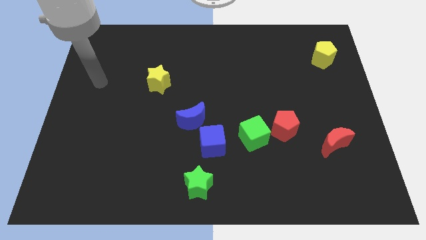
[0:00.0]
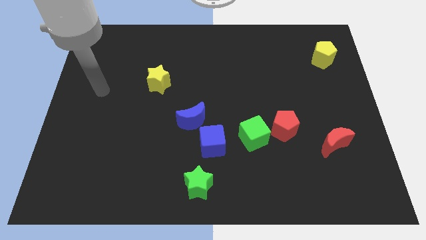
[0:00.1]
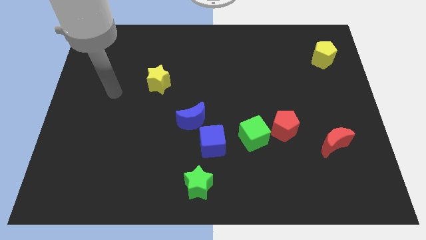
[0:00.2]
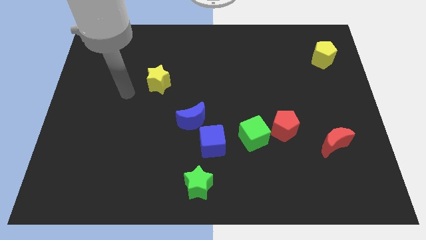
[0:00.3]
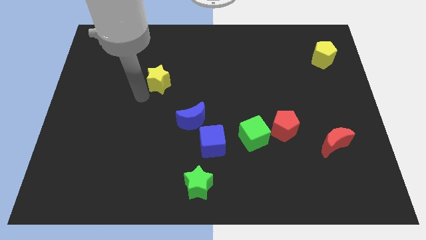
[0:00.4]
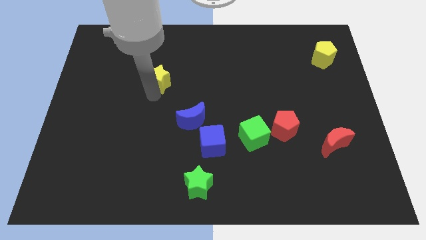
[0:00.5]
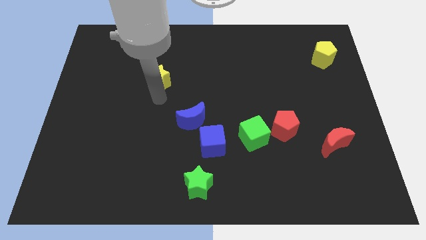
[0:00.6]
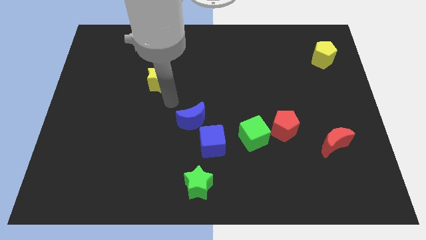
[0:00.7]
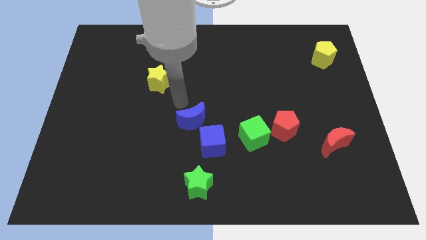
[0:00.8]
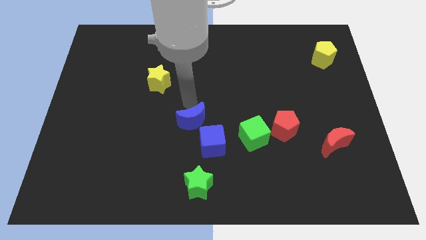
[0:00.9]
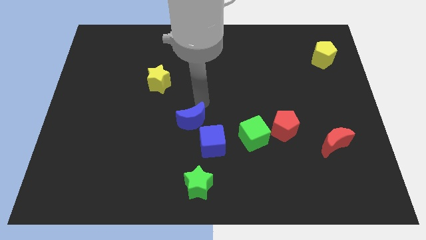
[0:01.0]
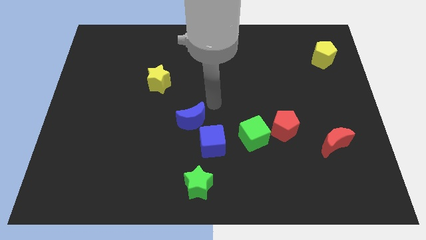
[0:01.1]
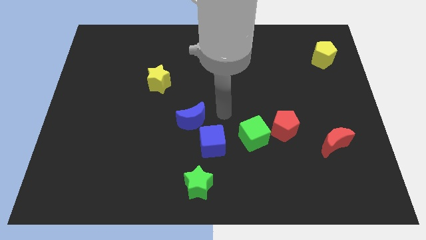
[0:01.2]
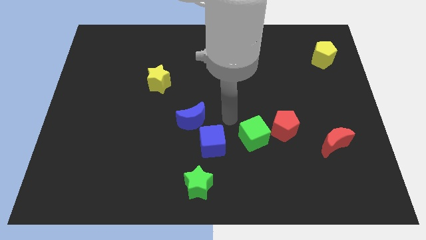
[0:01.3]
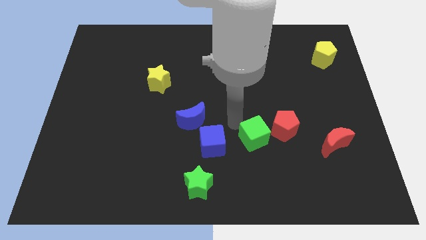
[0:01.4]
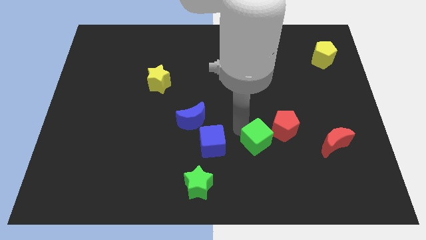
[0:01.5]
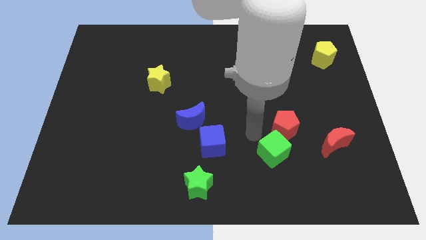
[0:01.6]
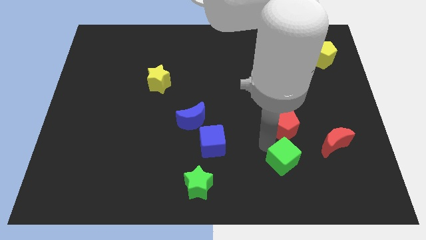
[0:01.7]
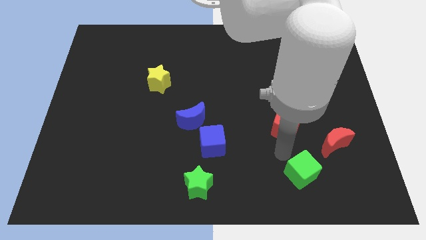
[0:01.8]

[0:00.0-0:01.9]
pull the red pentagon apart from the green cube

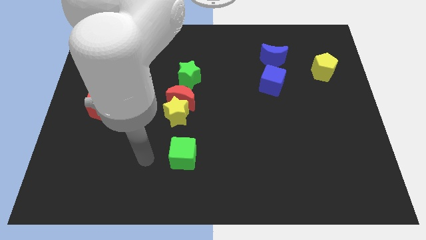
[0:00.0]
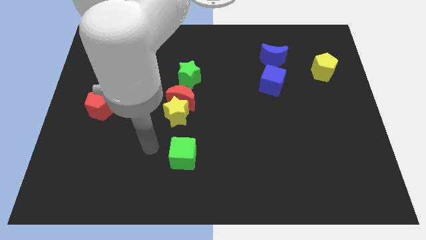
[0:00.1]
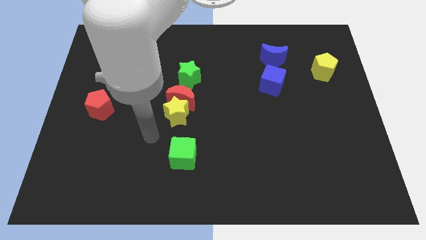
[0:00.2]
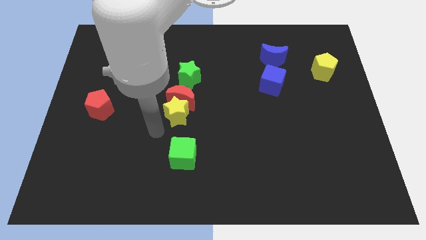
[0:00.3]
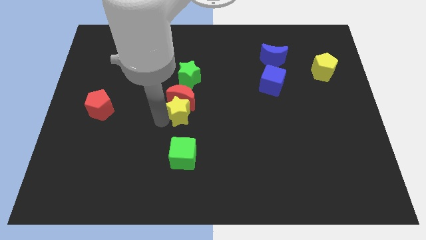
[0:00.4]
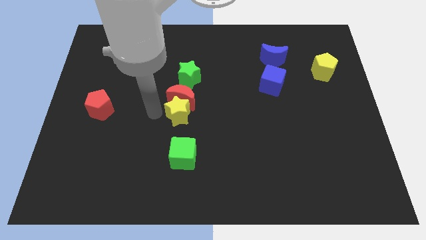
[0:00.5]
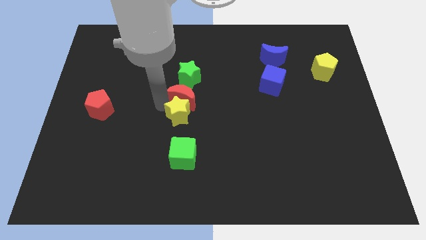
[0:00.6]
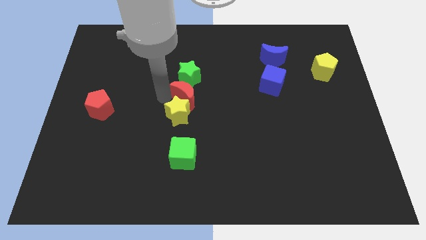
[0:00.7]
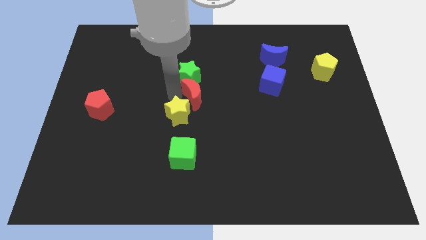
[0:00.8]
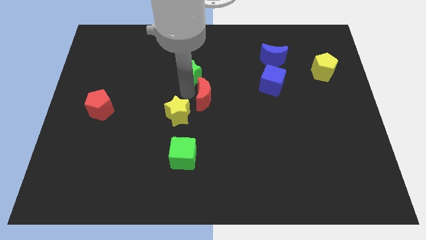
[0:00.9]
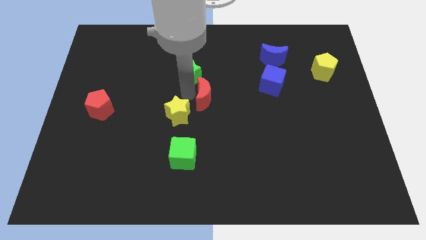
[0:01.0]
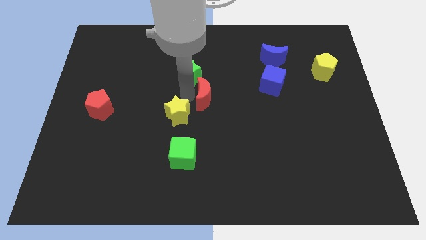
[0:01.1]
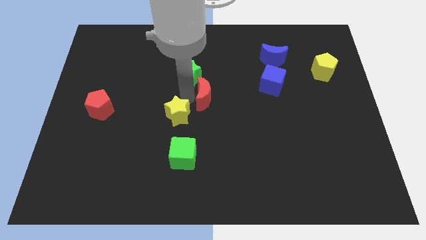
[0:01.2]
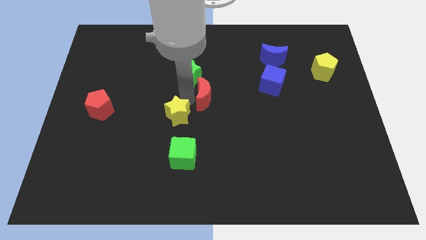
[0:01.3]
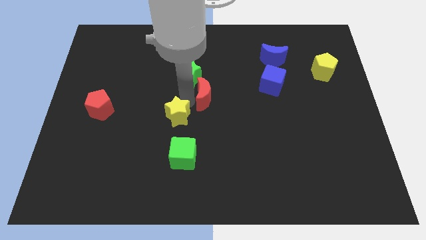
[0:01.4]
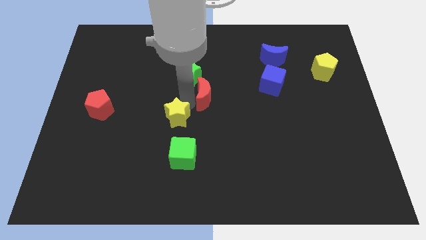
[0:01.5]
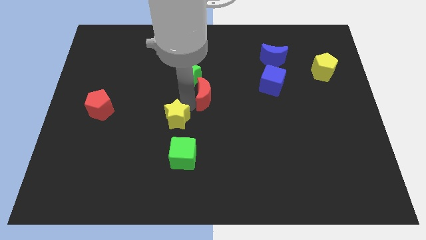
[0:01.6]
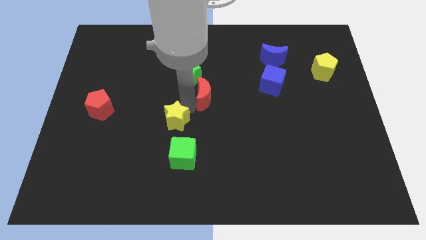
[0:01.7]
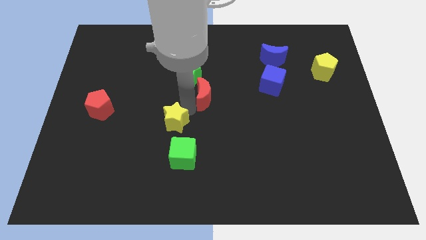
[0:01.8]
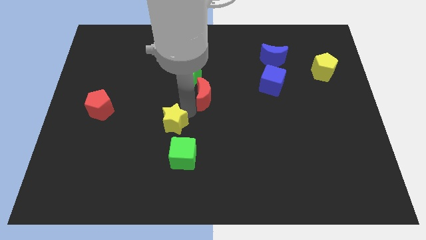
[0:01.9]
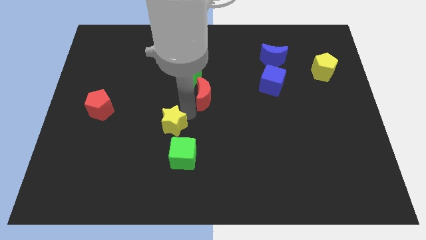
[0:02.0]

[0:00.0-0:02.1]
move the yellow star away from the red moon

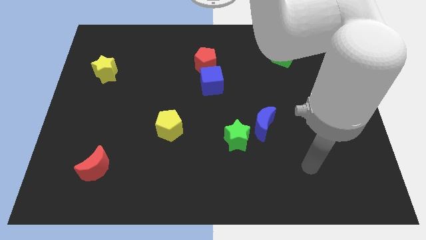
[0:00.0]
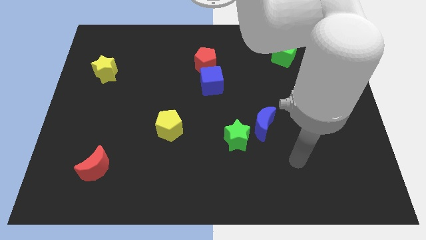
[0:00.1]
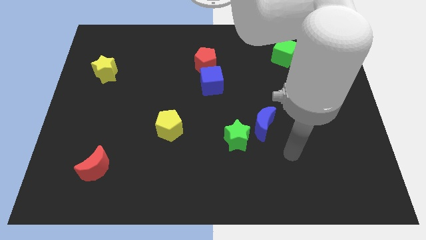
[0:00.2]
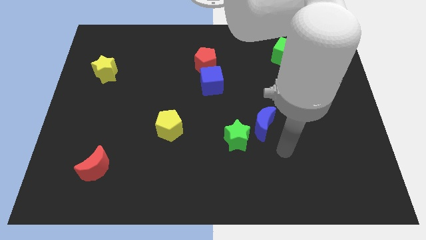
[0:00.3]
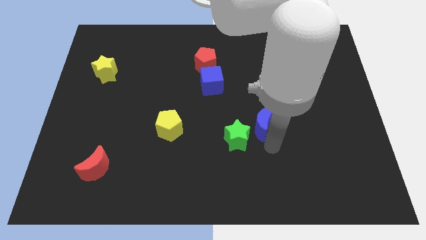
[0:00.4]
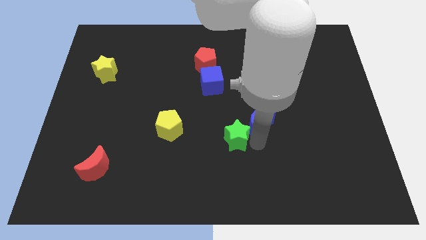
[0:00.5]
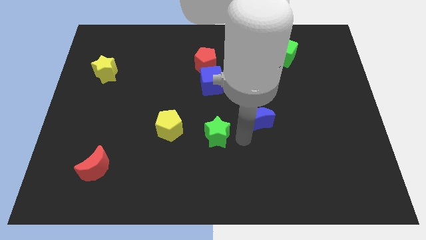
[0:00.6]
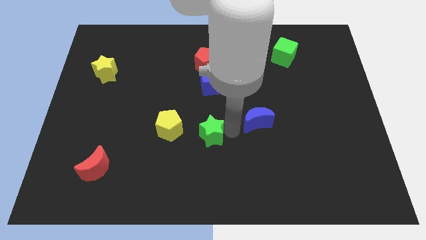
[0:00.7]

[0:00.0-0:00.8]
separate the blue moon from the green star

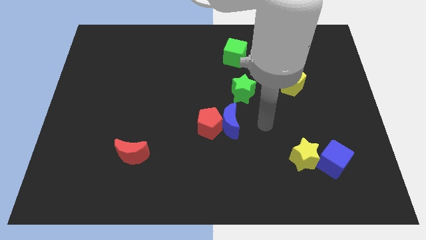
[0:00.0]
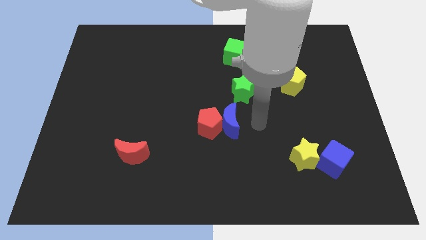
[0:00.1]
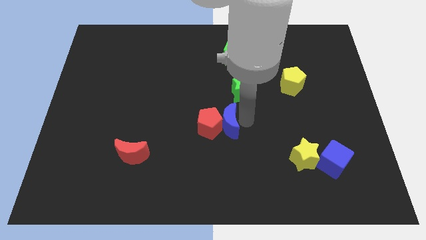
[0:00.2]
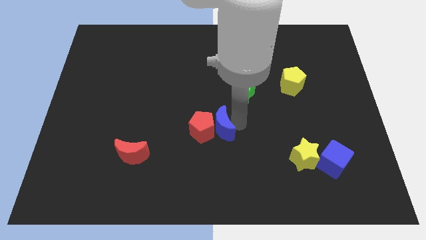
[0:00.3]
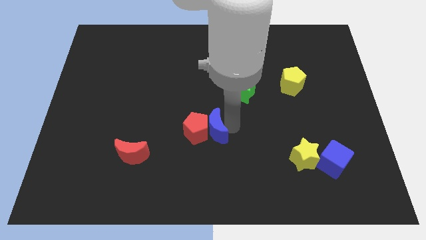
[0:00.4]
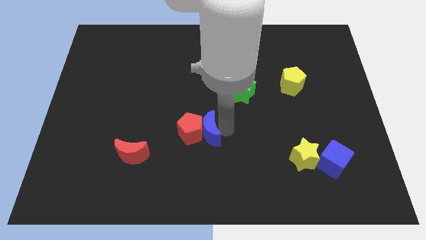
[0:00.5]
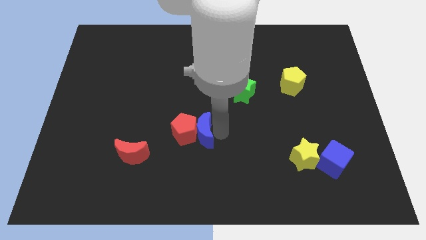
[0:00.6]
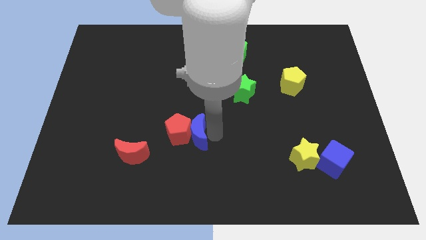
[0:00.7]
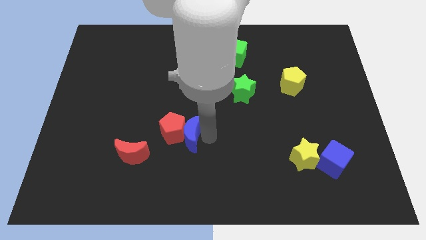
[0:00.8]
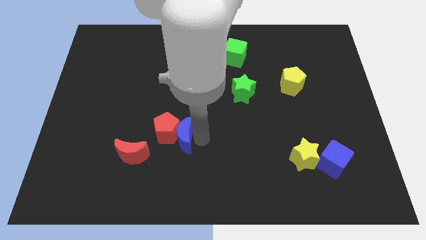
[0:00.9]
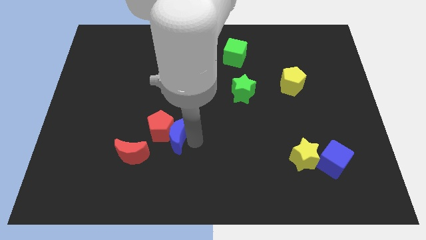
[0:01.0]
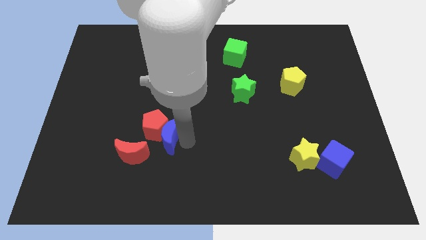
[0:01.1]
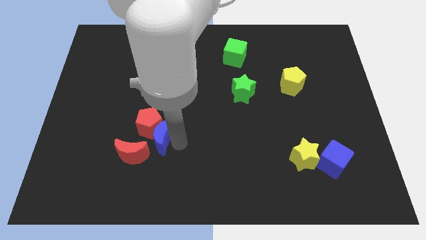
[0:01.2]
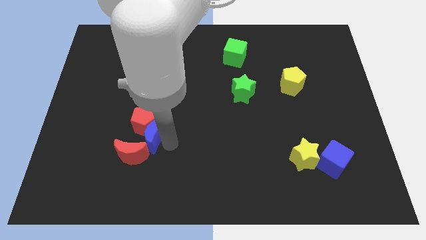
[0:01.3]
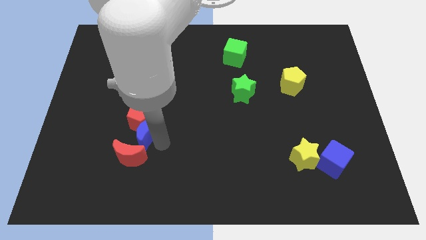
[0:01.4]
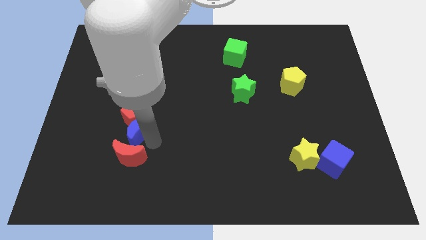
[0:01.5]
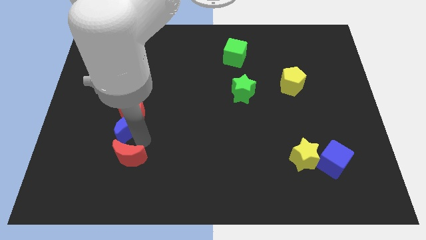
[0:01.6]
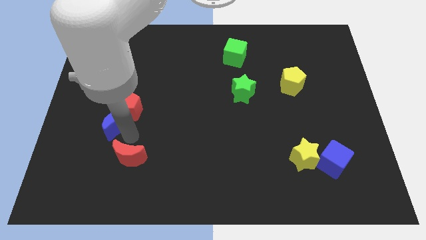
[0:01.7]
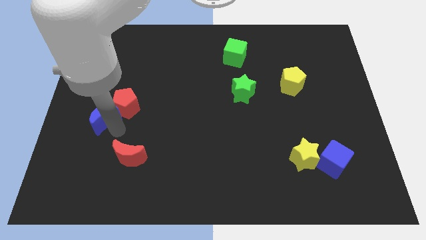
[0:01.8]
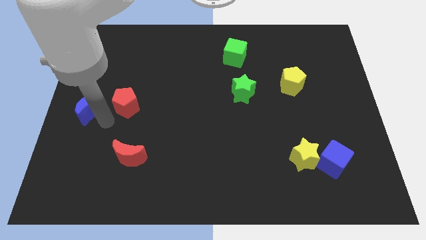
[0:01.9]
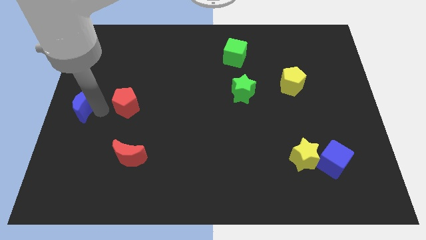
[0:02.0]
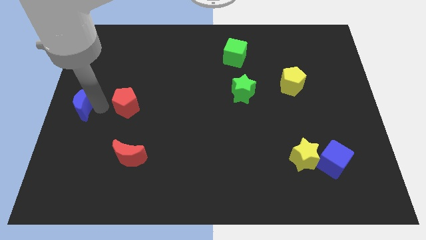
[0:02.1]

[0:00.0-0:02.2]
separate the red pentagon from the blue moon

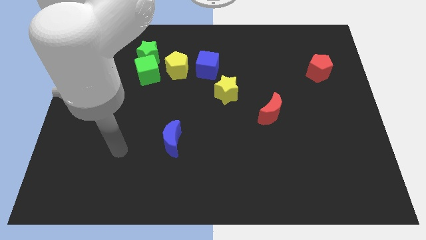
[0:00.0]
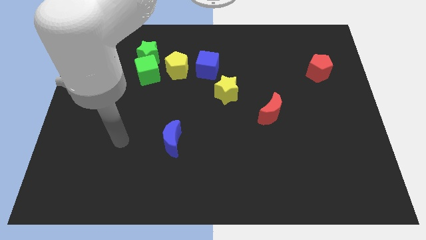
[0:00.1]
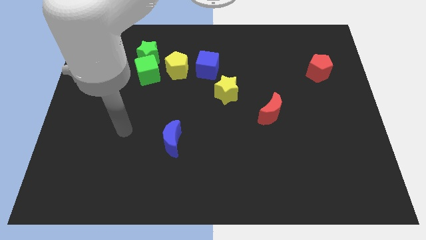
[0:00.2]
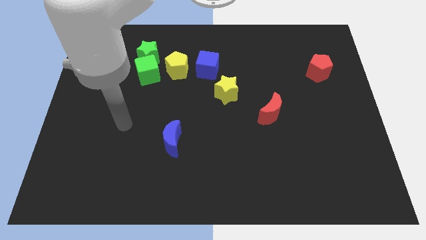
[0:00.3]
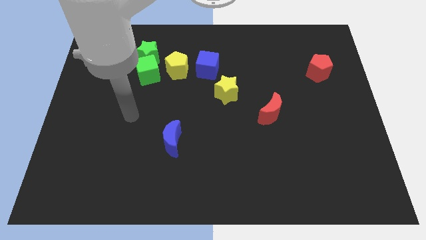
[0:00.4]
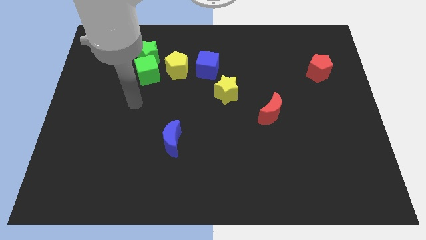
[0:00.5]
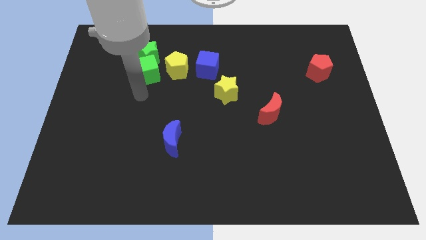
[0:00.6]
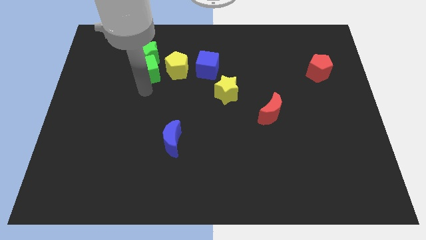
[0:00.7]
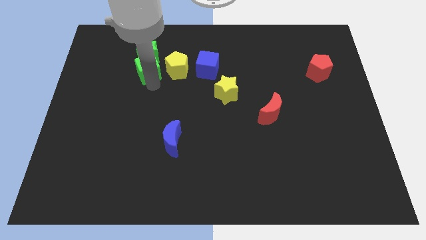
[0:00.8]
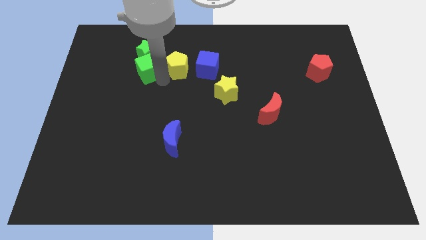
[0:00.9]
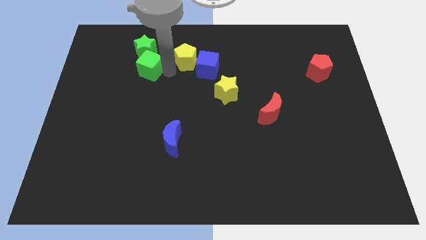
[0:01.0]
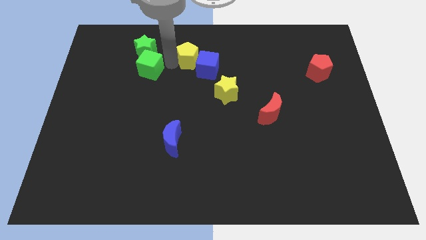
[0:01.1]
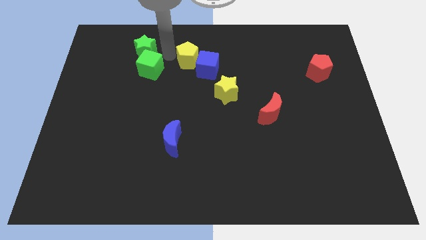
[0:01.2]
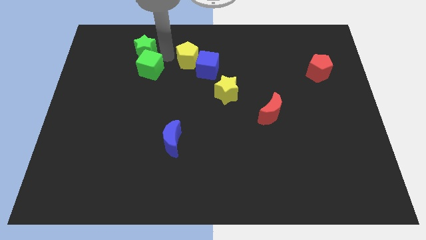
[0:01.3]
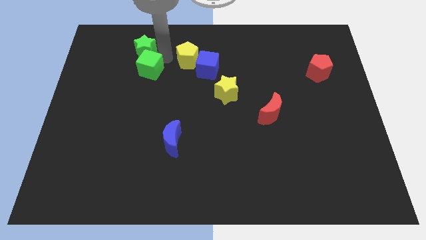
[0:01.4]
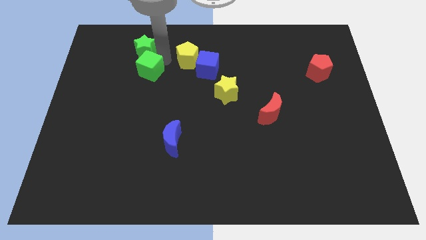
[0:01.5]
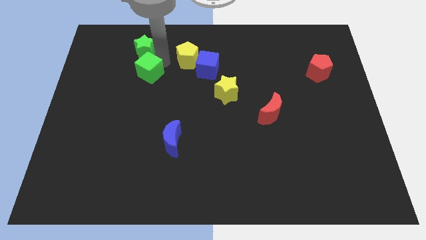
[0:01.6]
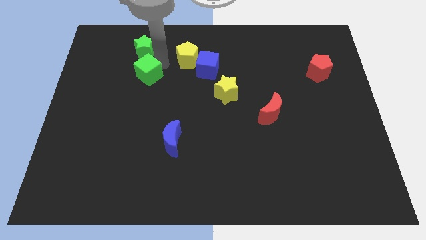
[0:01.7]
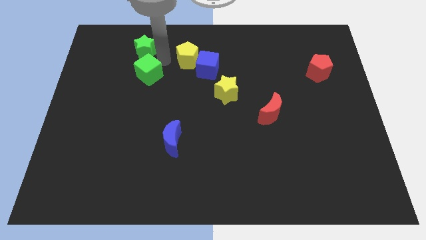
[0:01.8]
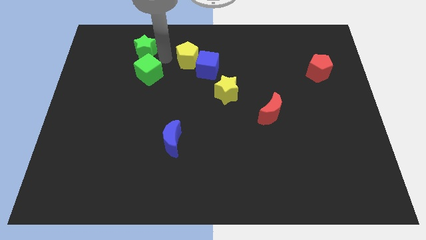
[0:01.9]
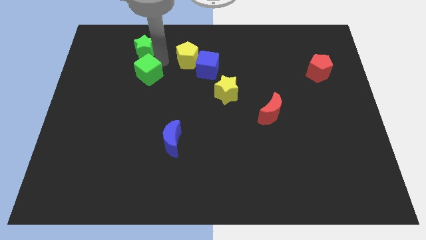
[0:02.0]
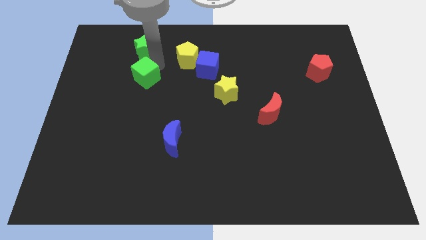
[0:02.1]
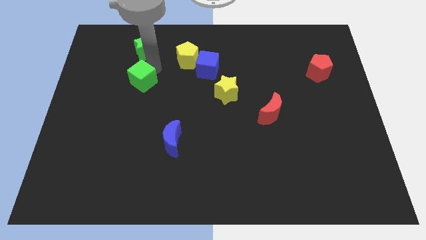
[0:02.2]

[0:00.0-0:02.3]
separate the green cube from the green star and yellow pentagon
